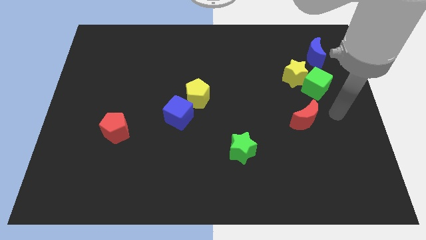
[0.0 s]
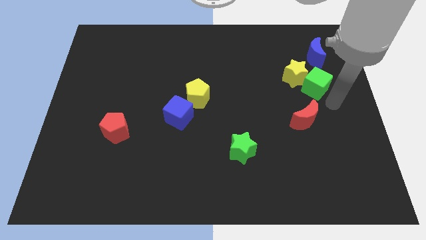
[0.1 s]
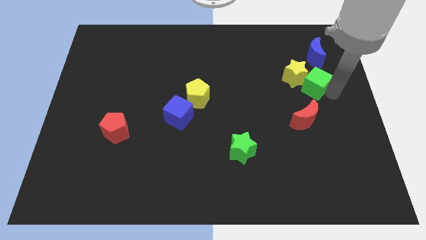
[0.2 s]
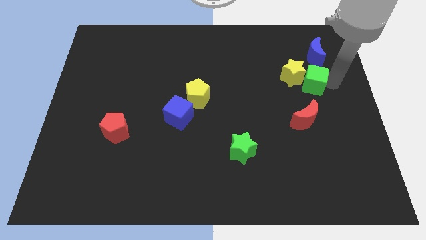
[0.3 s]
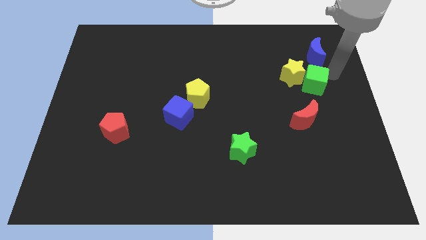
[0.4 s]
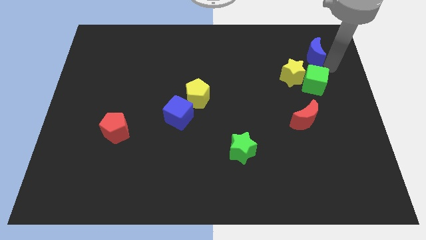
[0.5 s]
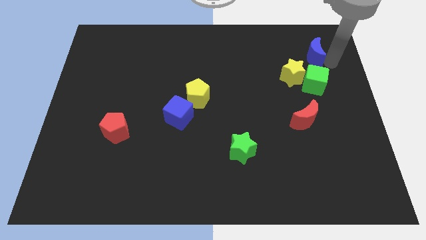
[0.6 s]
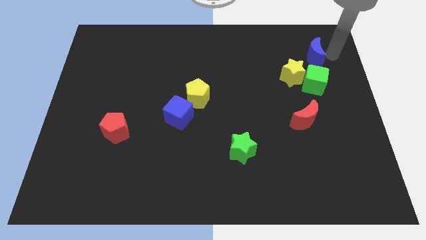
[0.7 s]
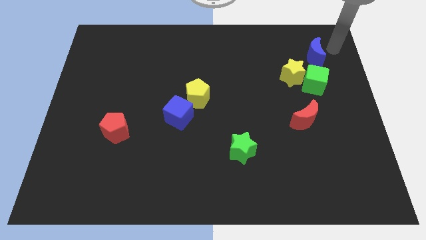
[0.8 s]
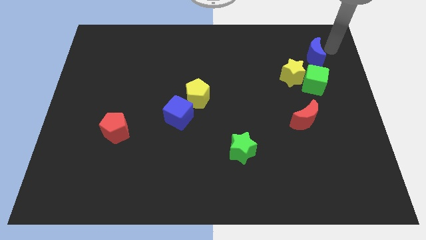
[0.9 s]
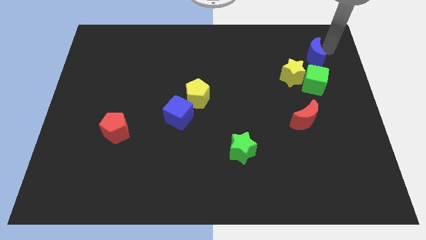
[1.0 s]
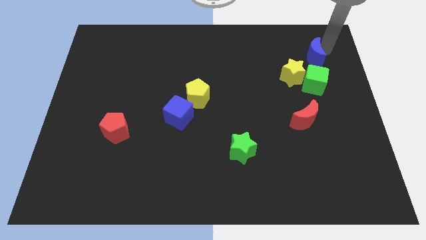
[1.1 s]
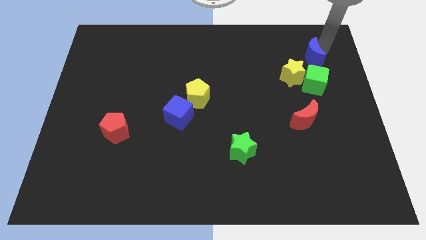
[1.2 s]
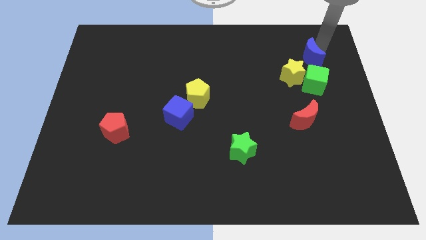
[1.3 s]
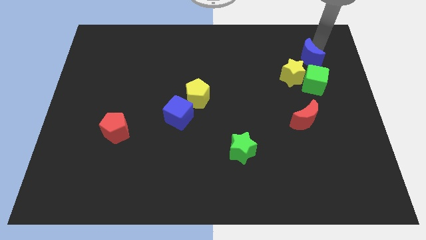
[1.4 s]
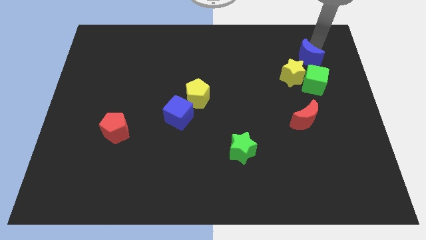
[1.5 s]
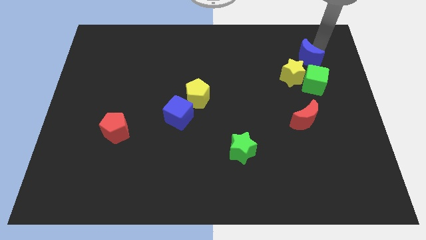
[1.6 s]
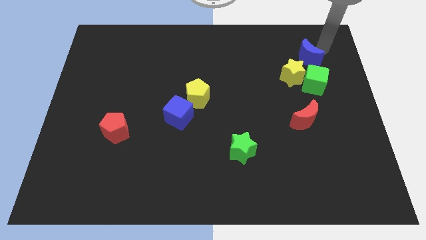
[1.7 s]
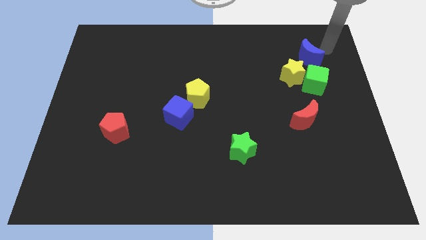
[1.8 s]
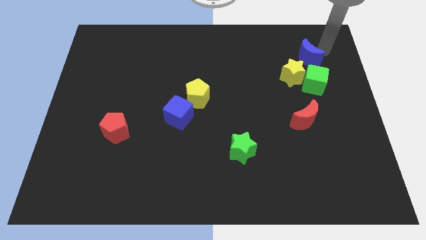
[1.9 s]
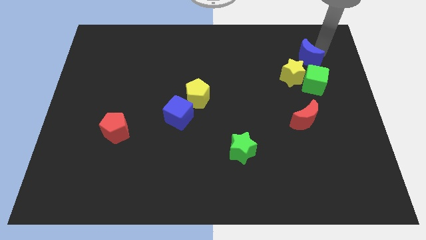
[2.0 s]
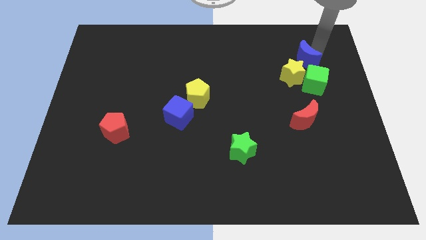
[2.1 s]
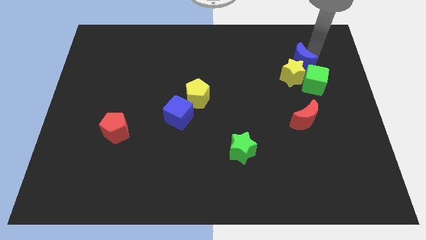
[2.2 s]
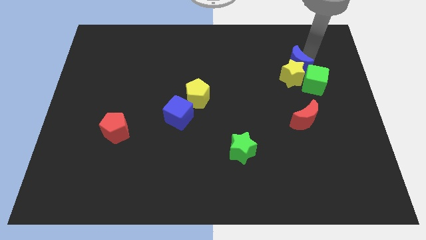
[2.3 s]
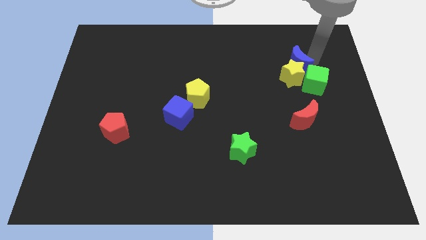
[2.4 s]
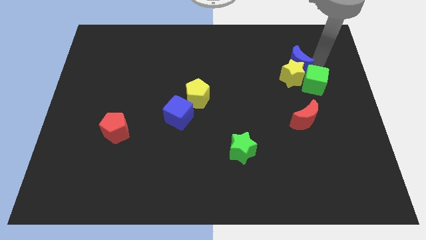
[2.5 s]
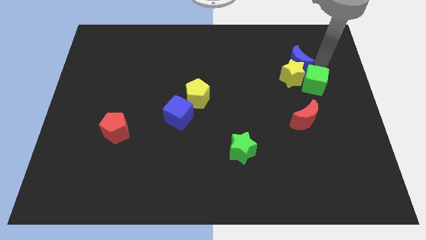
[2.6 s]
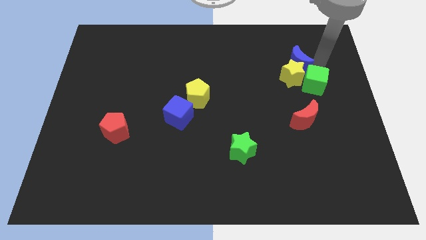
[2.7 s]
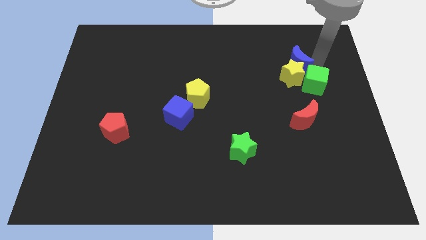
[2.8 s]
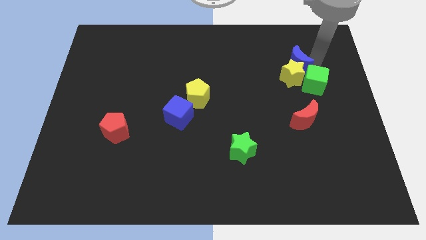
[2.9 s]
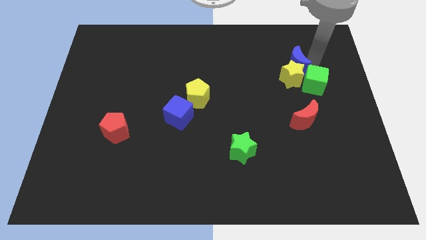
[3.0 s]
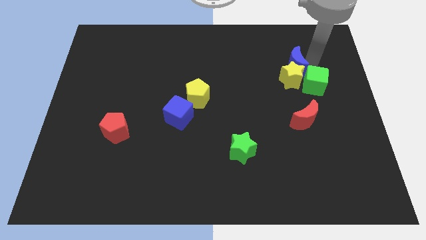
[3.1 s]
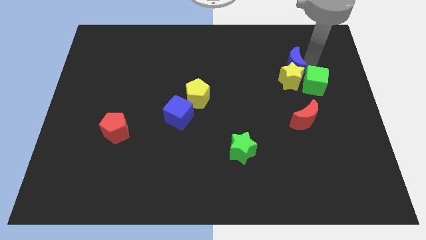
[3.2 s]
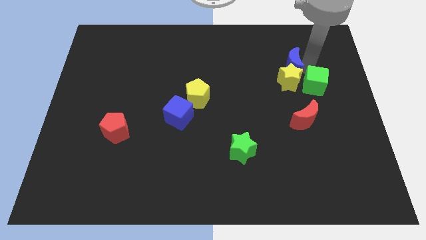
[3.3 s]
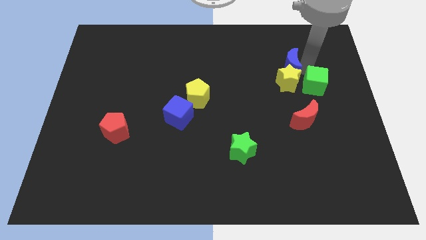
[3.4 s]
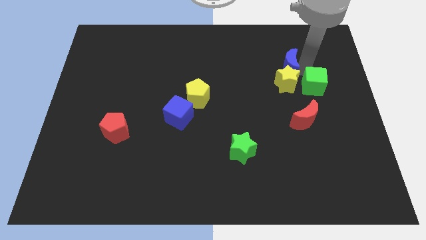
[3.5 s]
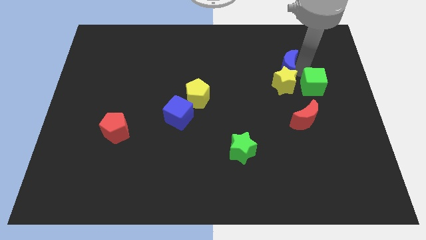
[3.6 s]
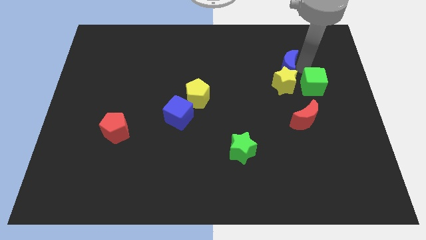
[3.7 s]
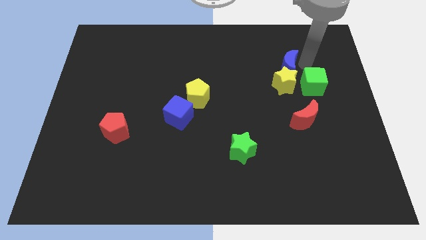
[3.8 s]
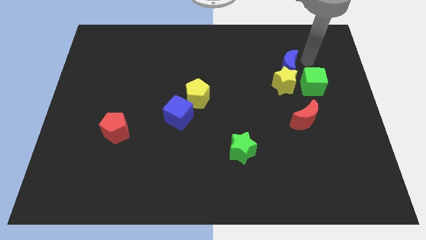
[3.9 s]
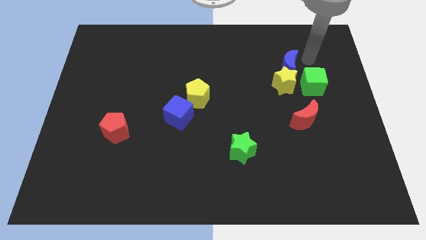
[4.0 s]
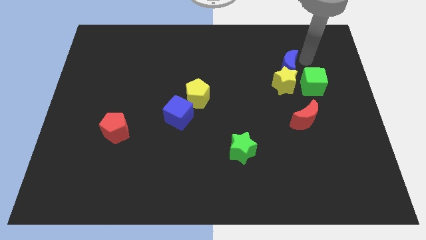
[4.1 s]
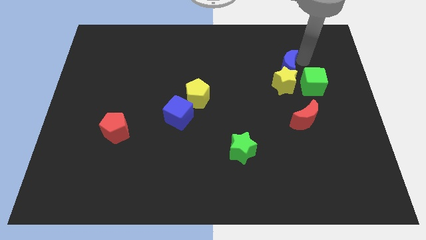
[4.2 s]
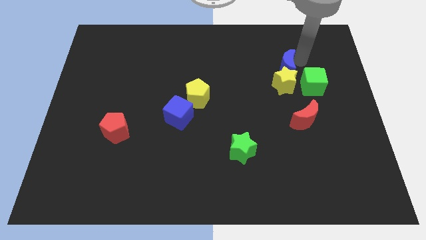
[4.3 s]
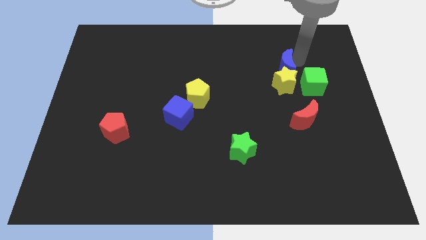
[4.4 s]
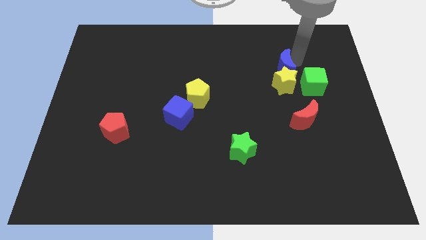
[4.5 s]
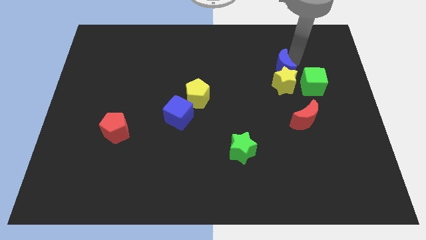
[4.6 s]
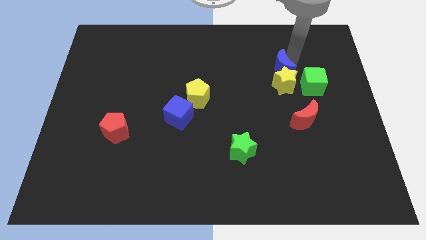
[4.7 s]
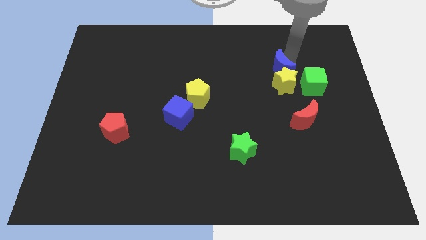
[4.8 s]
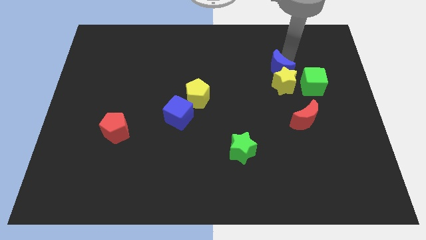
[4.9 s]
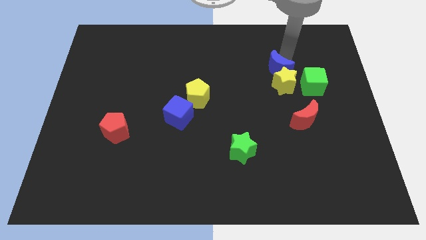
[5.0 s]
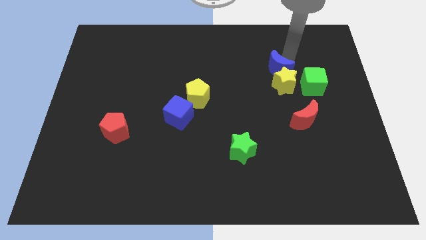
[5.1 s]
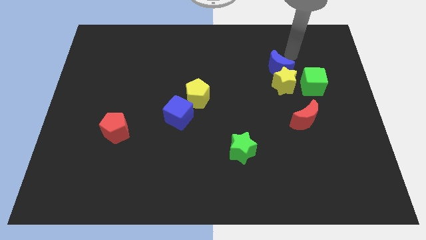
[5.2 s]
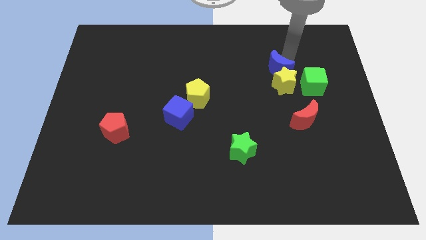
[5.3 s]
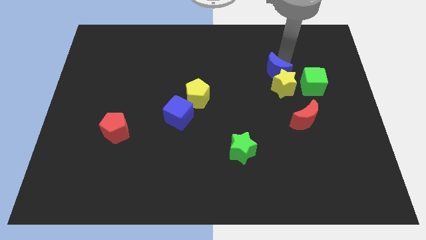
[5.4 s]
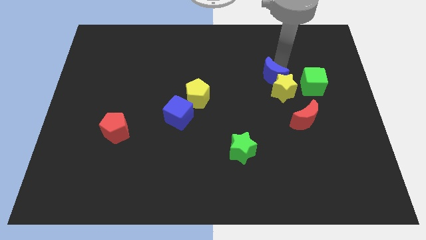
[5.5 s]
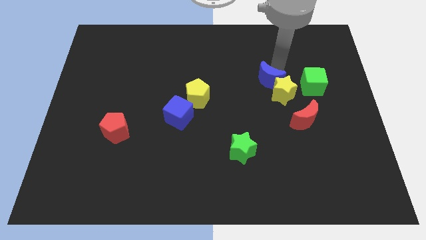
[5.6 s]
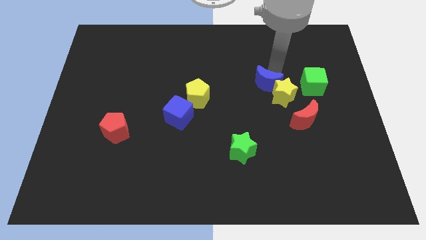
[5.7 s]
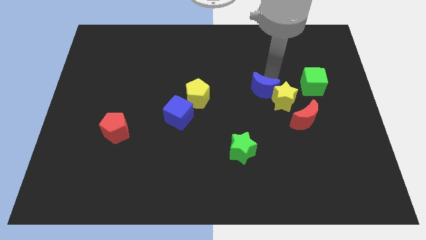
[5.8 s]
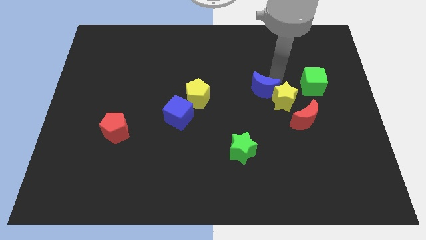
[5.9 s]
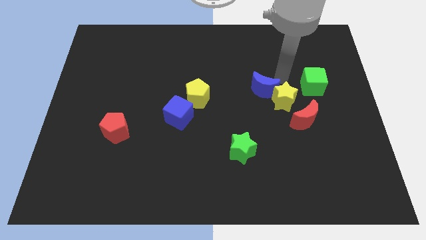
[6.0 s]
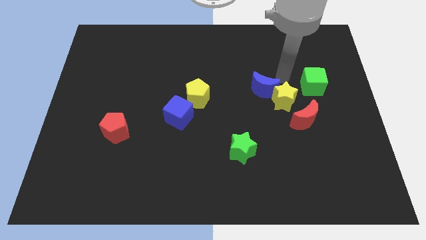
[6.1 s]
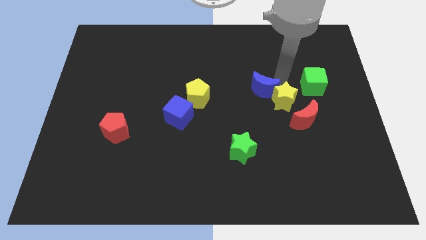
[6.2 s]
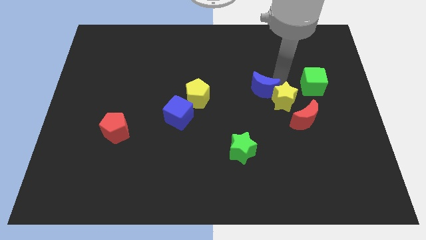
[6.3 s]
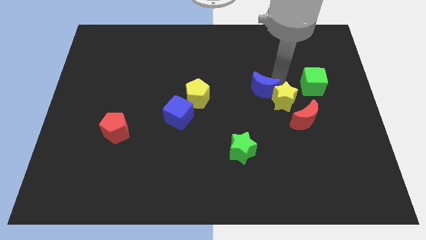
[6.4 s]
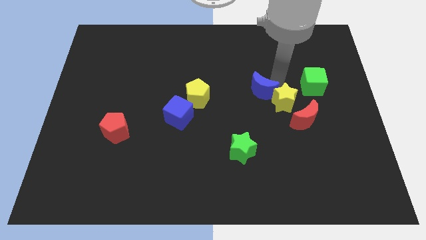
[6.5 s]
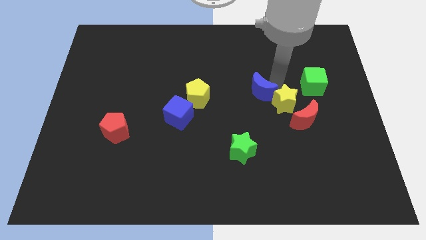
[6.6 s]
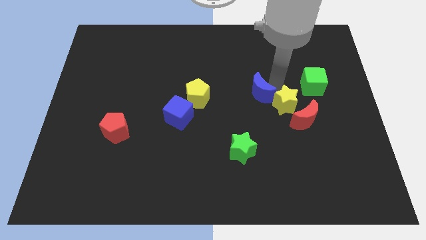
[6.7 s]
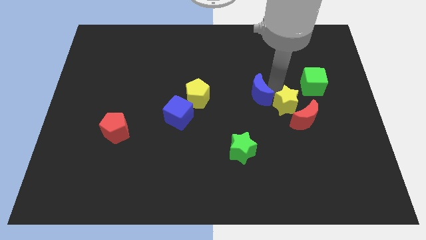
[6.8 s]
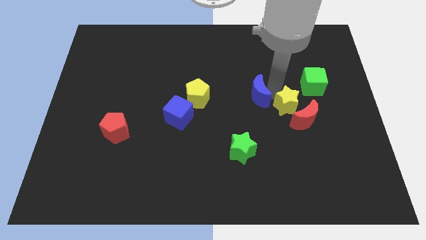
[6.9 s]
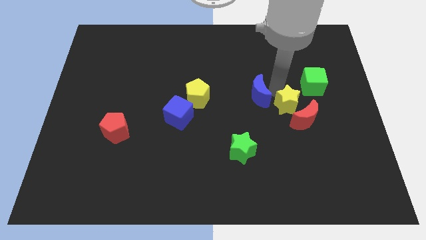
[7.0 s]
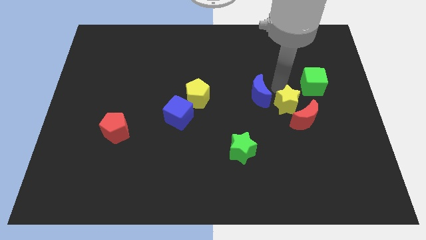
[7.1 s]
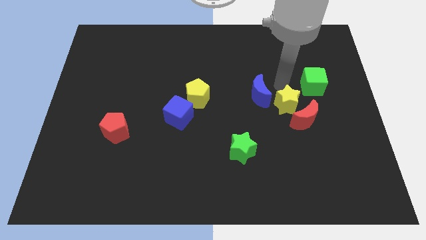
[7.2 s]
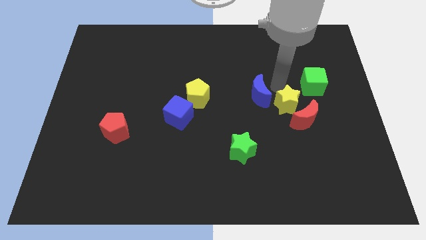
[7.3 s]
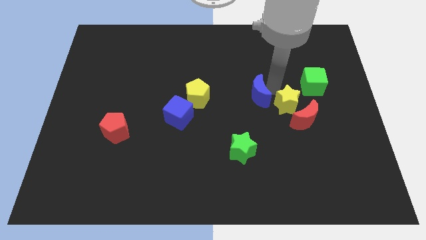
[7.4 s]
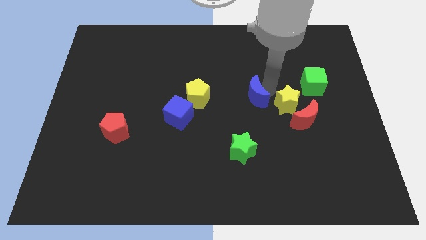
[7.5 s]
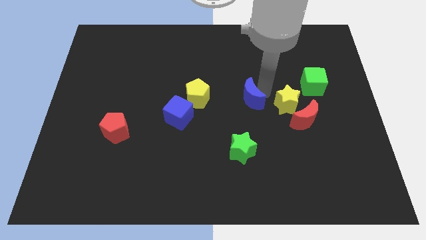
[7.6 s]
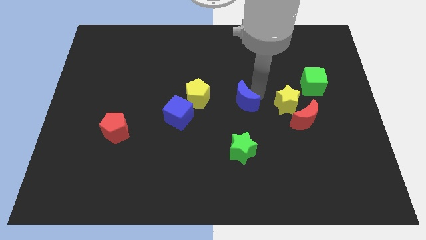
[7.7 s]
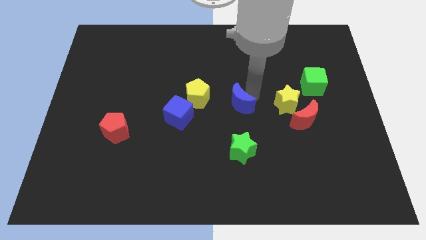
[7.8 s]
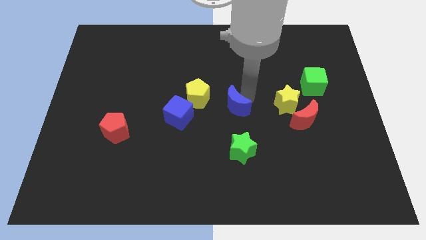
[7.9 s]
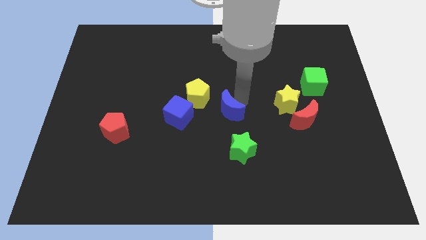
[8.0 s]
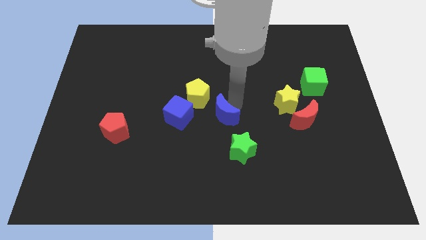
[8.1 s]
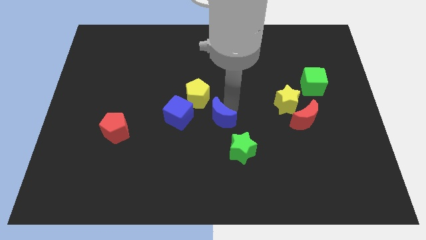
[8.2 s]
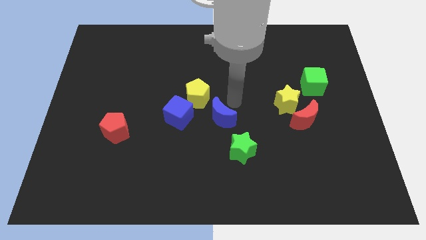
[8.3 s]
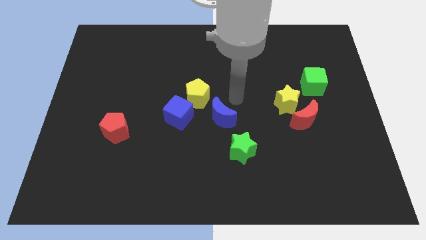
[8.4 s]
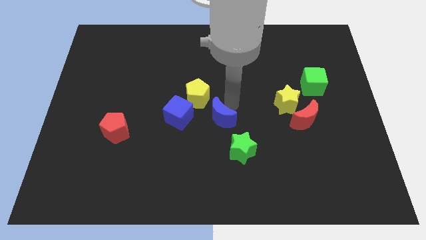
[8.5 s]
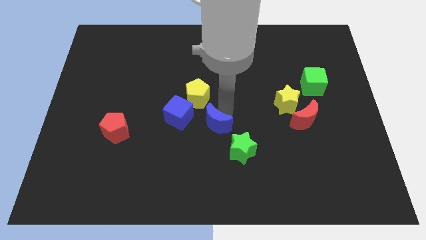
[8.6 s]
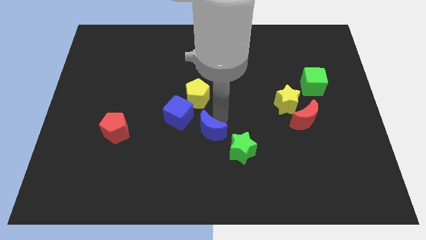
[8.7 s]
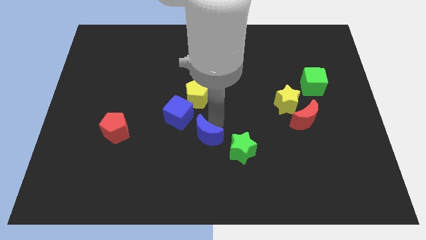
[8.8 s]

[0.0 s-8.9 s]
push the blue moon just left of the green star
